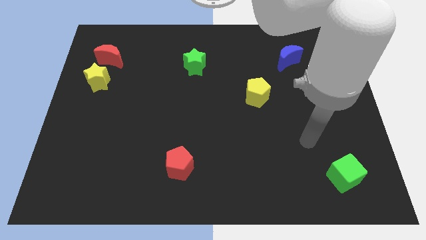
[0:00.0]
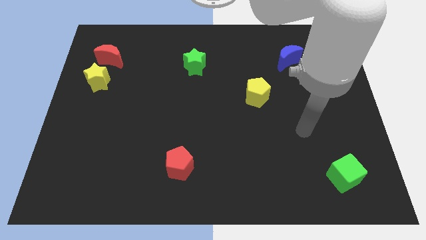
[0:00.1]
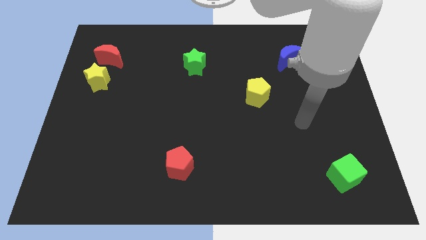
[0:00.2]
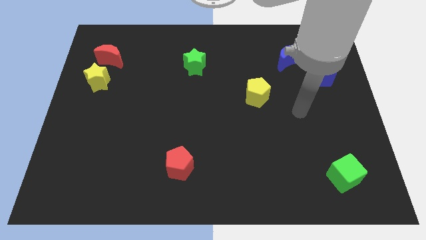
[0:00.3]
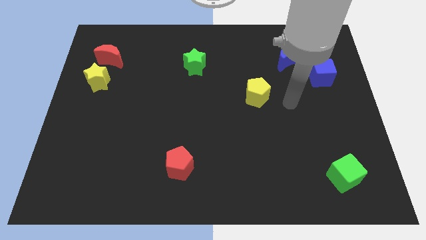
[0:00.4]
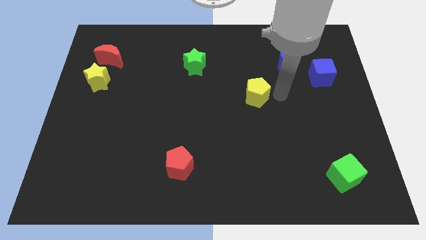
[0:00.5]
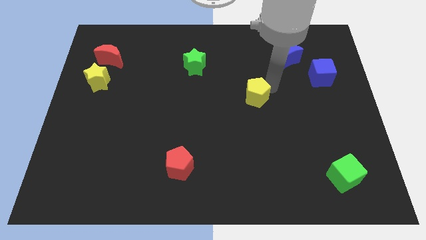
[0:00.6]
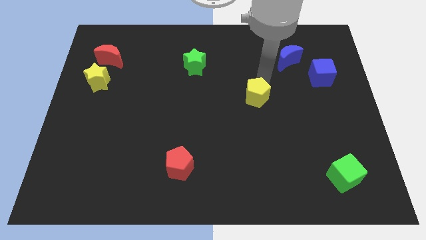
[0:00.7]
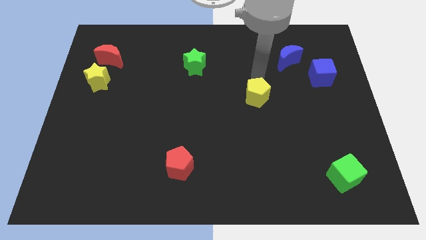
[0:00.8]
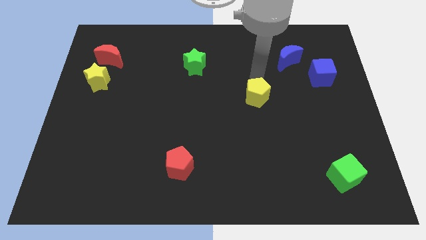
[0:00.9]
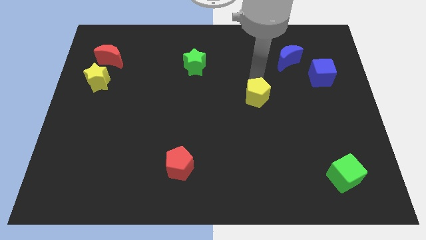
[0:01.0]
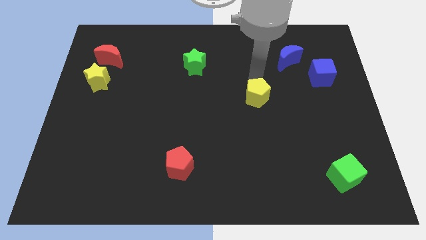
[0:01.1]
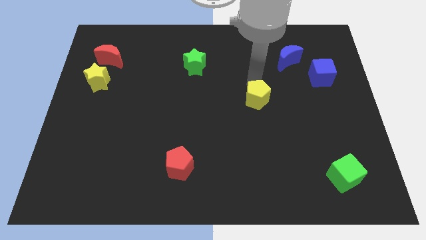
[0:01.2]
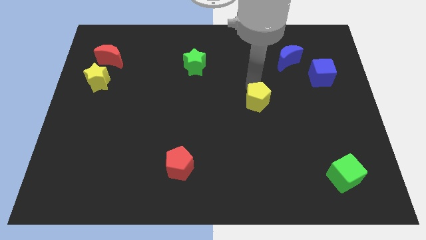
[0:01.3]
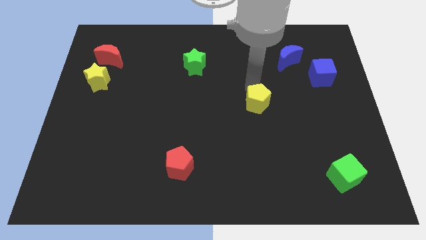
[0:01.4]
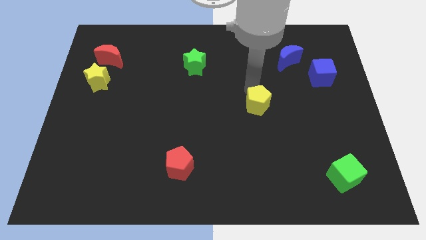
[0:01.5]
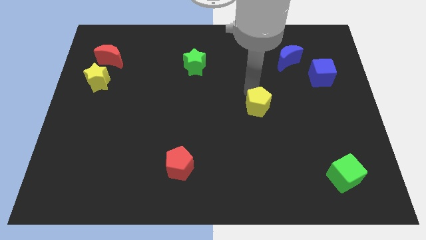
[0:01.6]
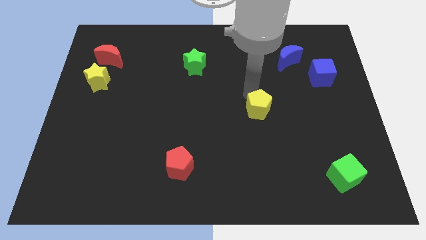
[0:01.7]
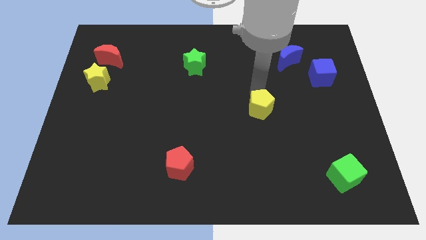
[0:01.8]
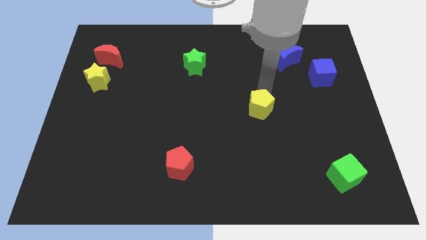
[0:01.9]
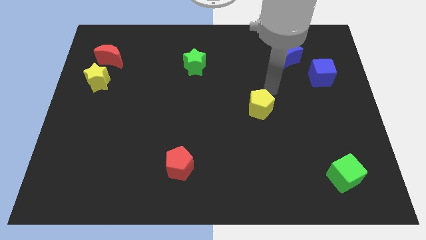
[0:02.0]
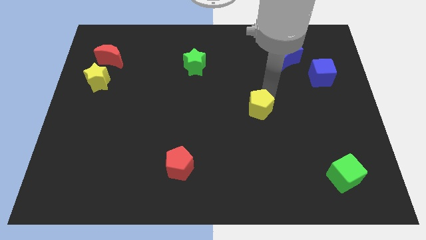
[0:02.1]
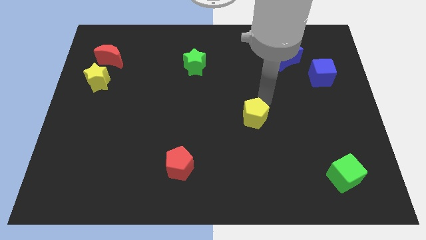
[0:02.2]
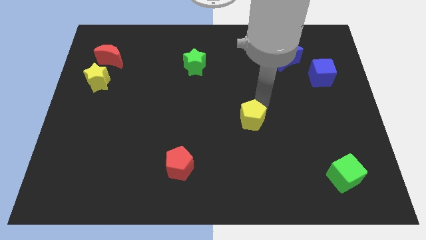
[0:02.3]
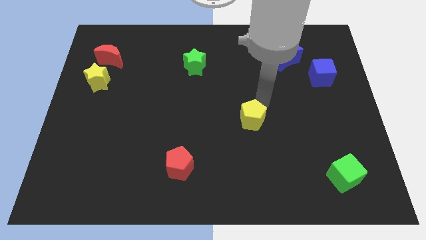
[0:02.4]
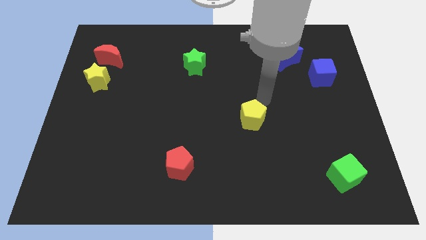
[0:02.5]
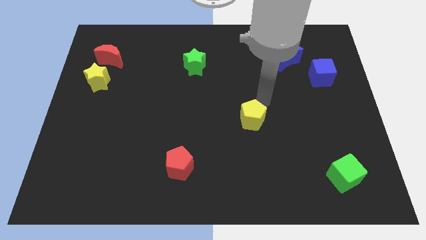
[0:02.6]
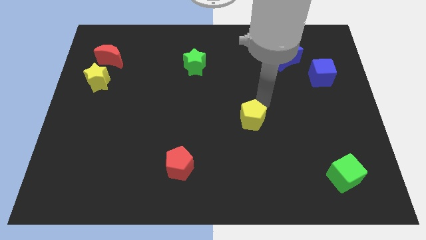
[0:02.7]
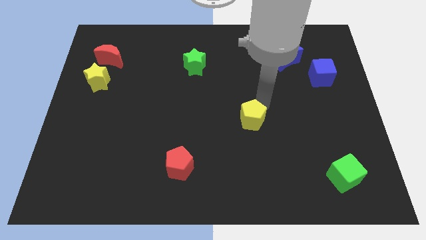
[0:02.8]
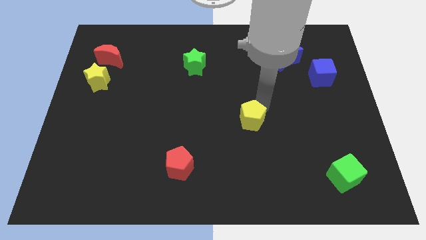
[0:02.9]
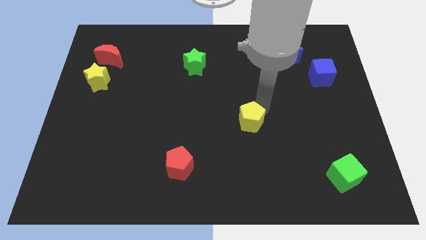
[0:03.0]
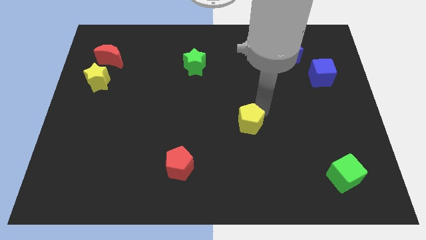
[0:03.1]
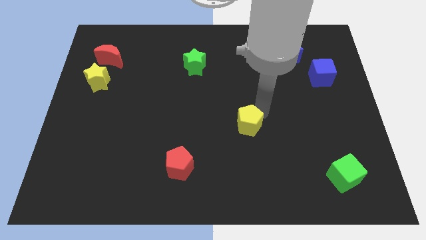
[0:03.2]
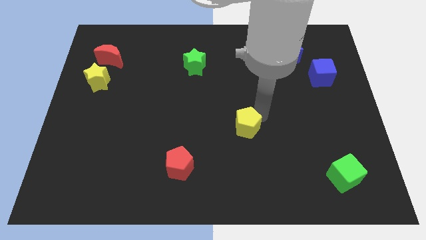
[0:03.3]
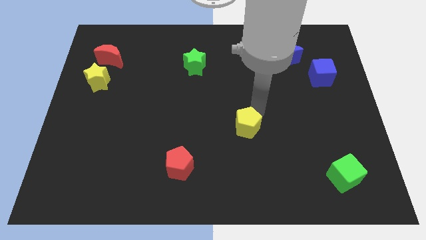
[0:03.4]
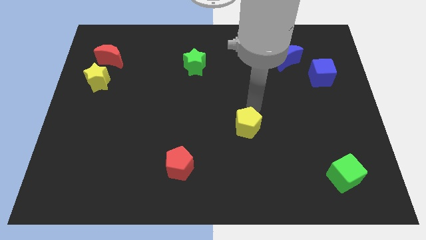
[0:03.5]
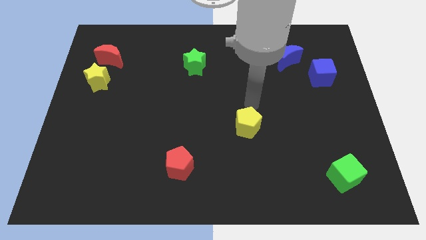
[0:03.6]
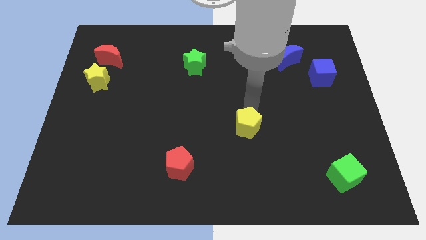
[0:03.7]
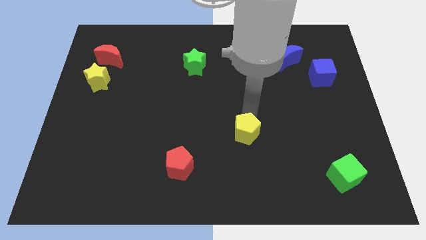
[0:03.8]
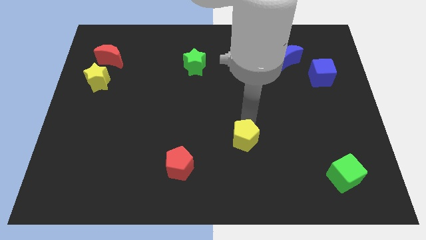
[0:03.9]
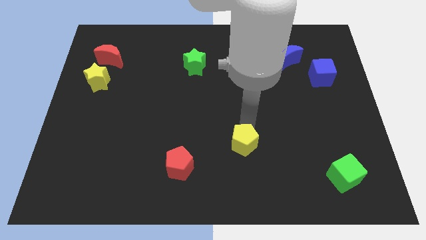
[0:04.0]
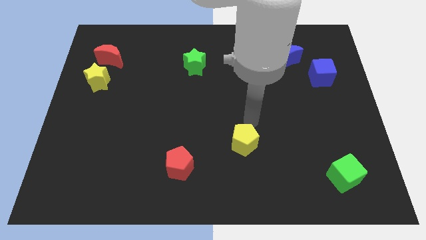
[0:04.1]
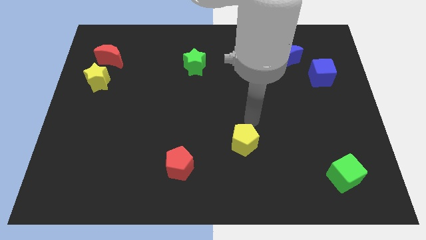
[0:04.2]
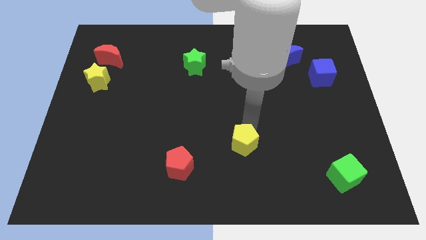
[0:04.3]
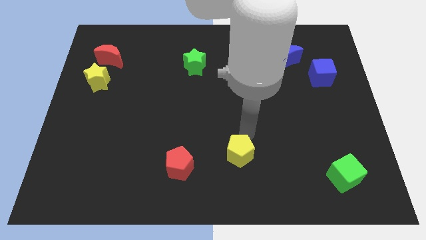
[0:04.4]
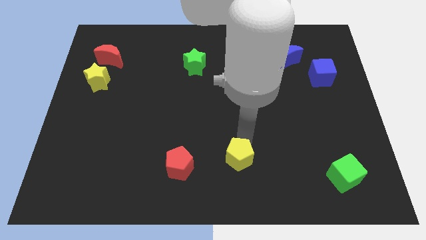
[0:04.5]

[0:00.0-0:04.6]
push the yellow pentagon to the bottom side

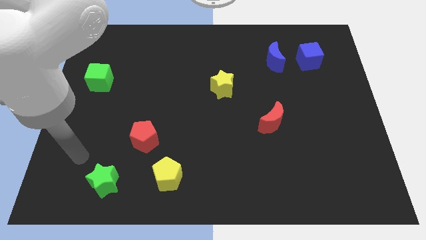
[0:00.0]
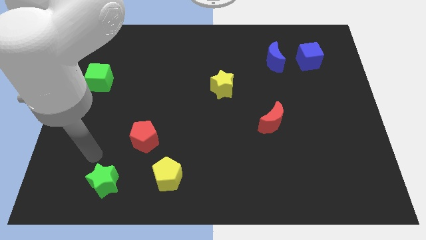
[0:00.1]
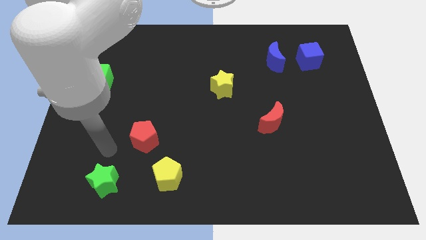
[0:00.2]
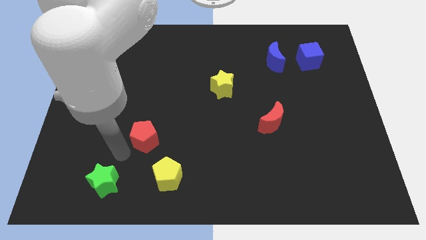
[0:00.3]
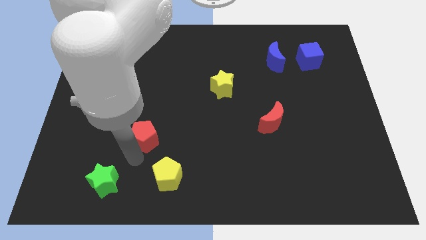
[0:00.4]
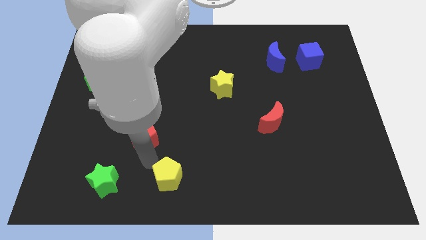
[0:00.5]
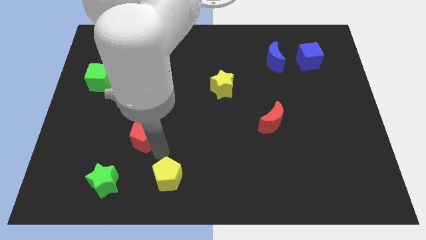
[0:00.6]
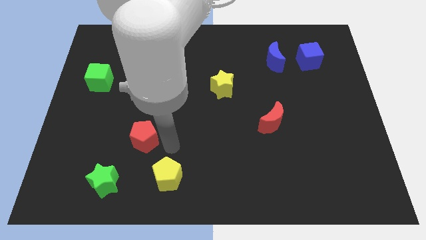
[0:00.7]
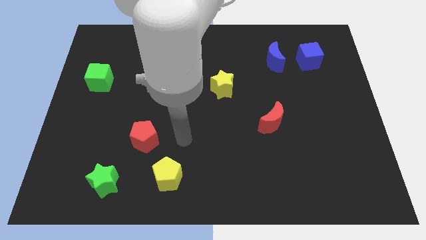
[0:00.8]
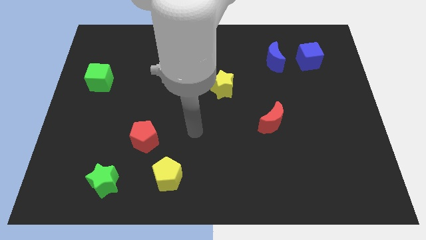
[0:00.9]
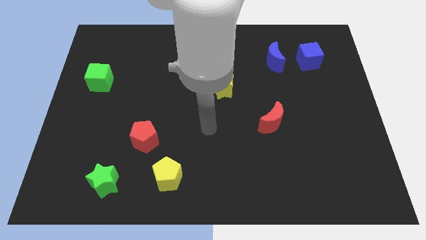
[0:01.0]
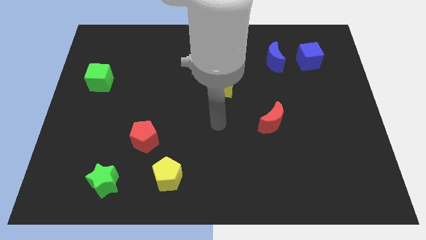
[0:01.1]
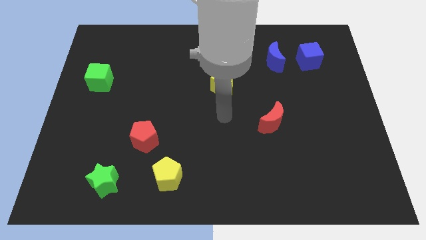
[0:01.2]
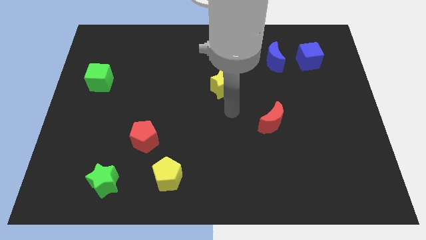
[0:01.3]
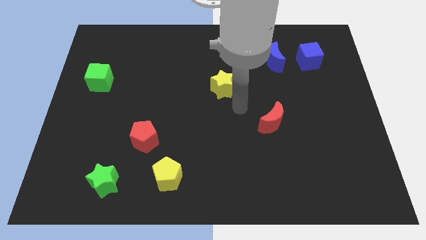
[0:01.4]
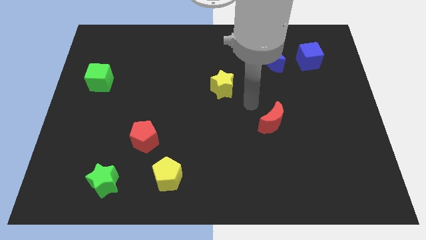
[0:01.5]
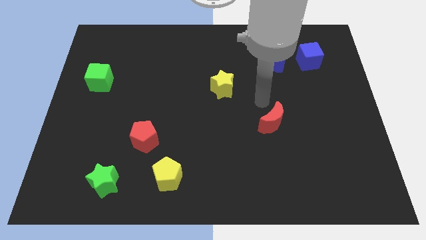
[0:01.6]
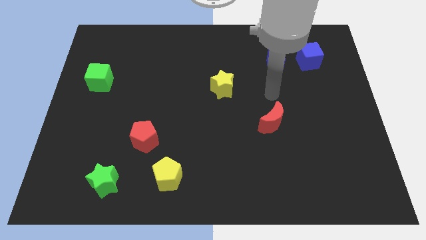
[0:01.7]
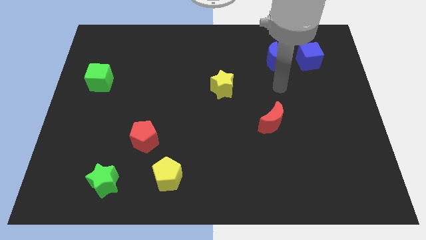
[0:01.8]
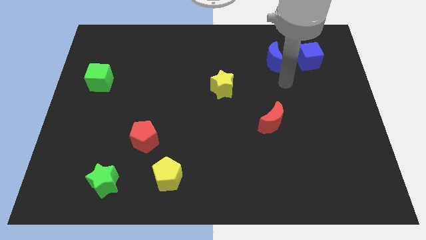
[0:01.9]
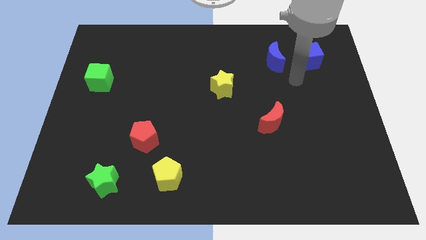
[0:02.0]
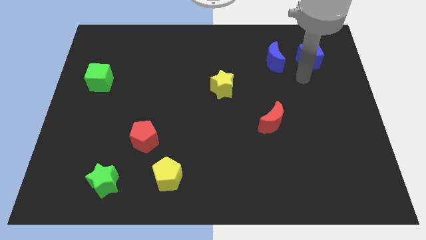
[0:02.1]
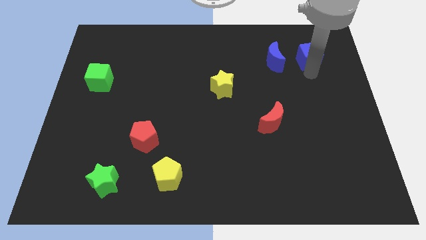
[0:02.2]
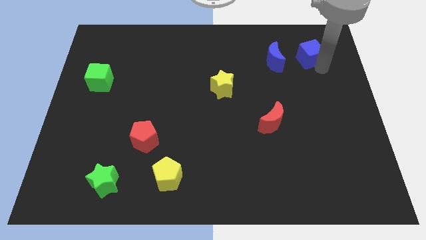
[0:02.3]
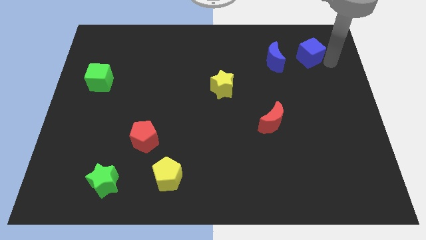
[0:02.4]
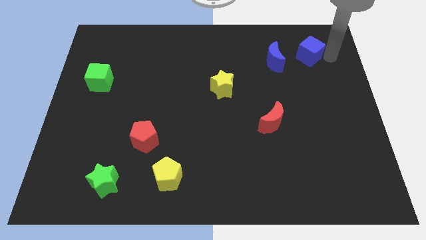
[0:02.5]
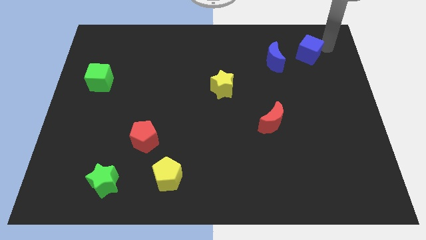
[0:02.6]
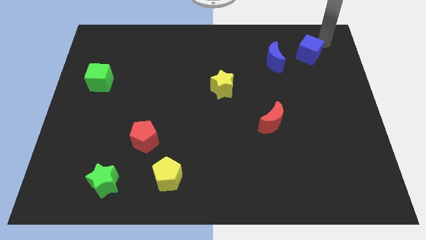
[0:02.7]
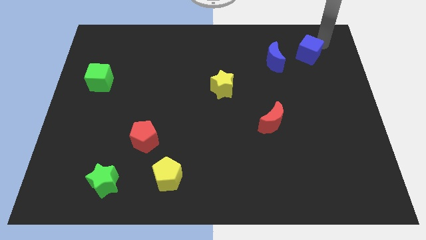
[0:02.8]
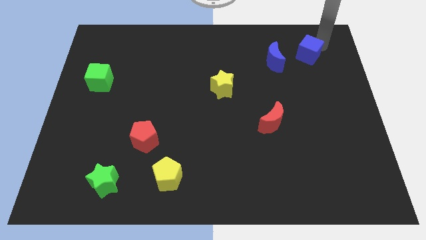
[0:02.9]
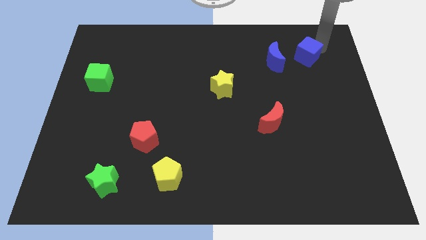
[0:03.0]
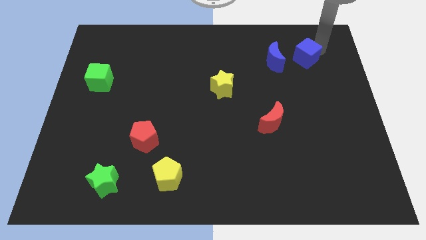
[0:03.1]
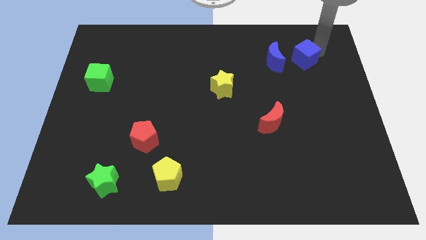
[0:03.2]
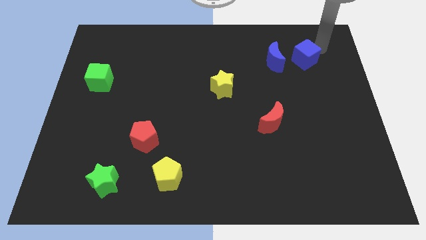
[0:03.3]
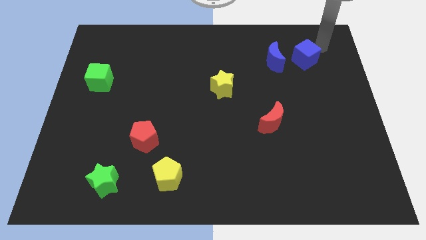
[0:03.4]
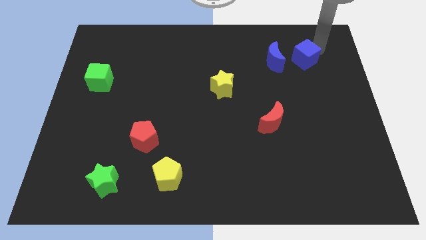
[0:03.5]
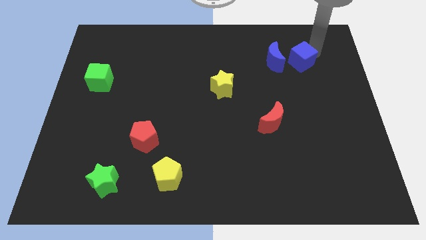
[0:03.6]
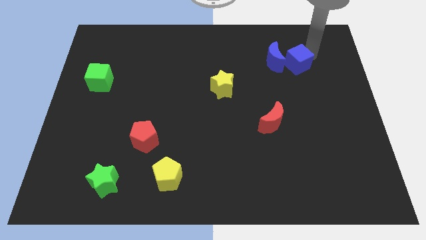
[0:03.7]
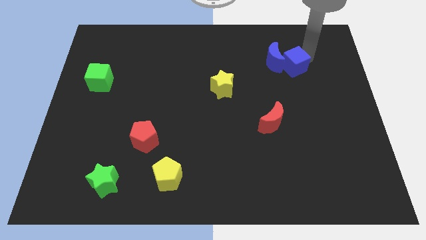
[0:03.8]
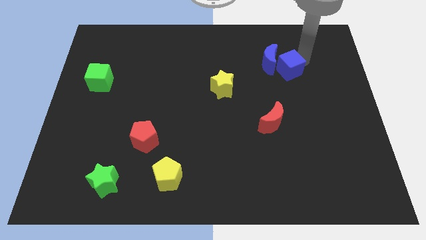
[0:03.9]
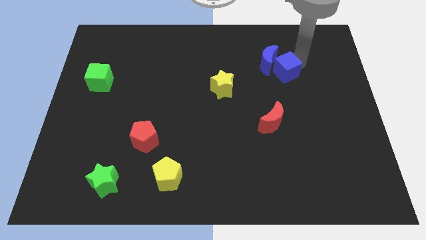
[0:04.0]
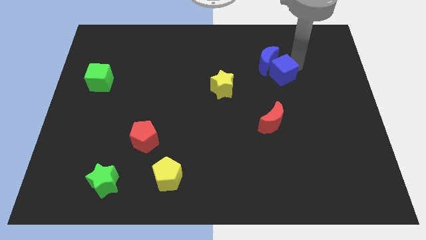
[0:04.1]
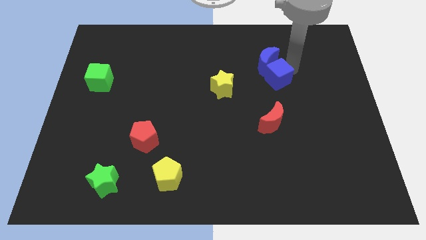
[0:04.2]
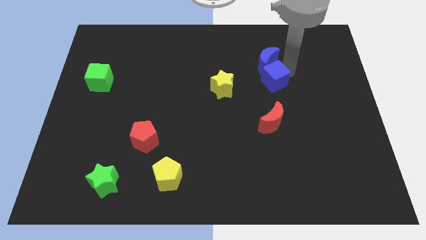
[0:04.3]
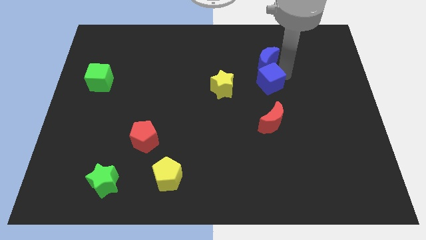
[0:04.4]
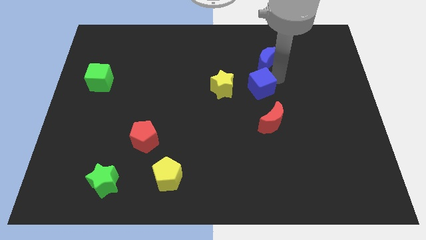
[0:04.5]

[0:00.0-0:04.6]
push the blue cube to the center of the board
